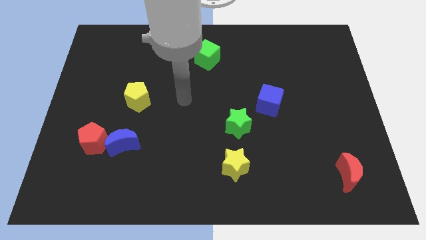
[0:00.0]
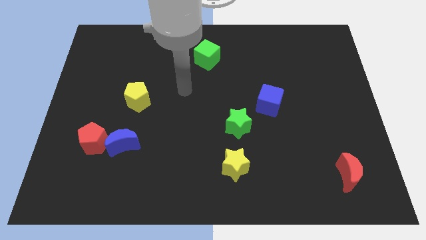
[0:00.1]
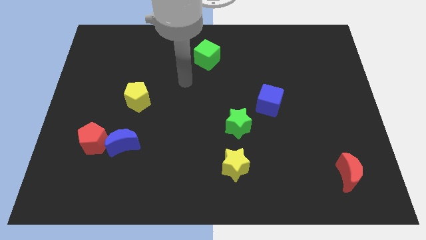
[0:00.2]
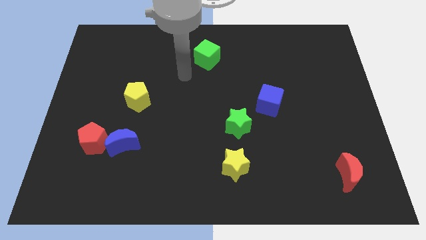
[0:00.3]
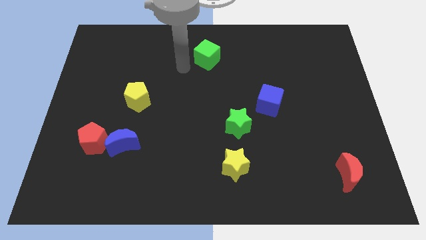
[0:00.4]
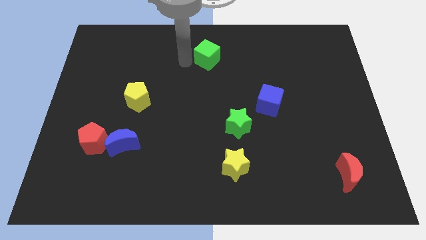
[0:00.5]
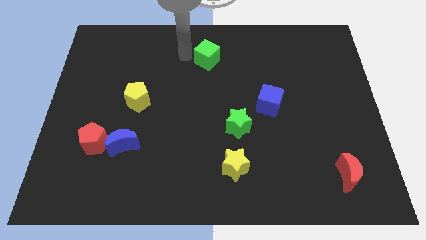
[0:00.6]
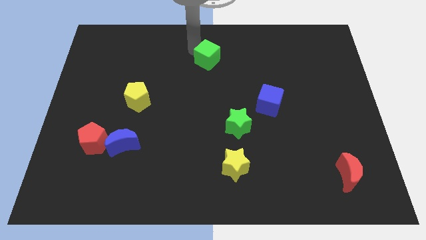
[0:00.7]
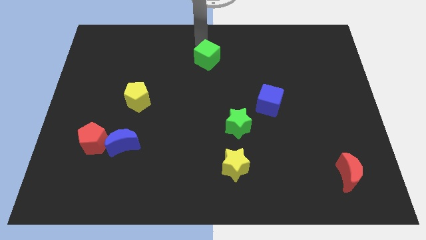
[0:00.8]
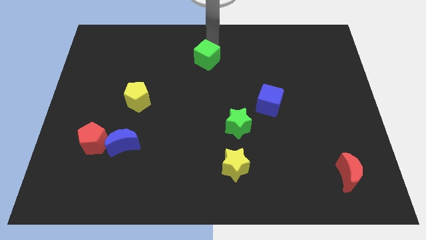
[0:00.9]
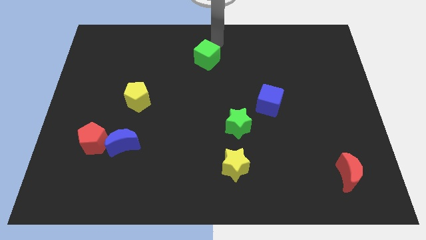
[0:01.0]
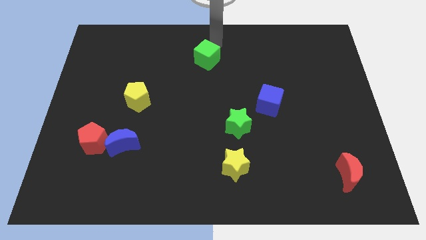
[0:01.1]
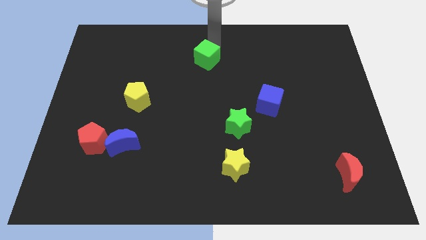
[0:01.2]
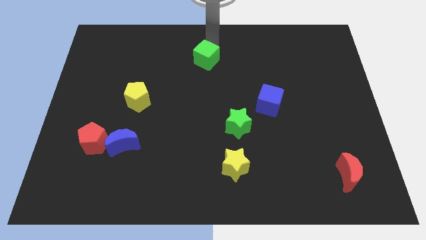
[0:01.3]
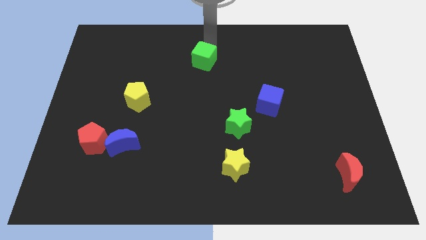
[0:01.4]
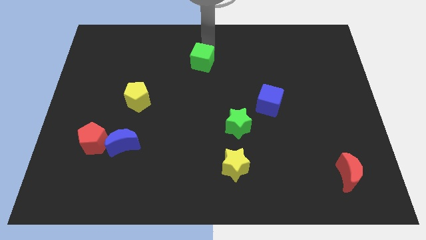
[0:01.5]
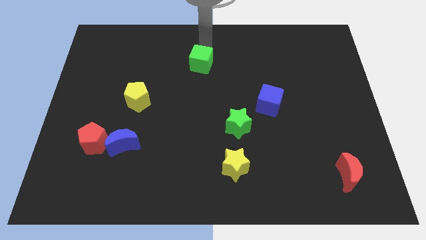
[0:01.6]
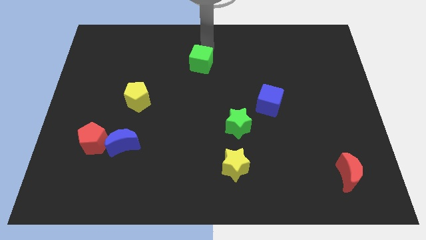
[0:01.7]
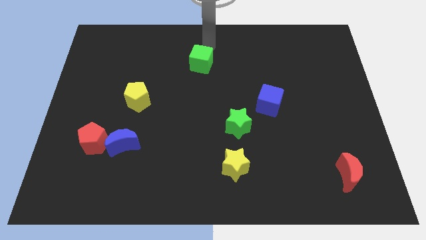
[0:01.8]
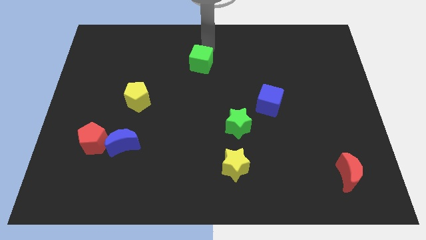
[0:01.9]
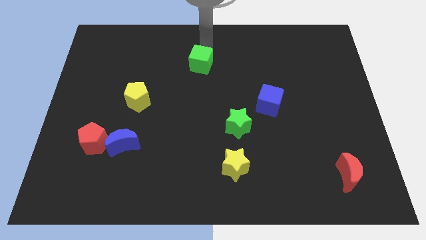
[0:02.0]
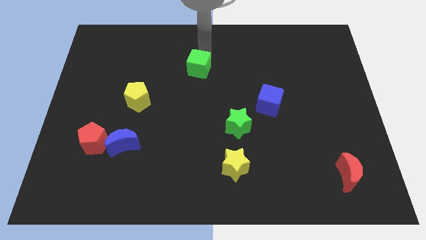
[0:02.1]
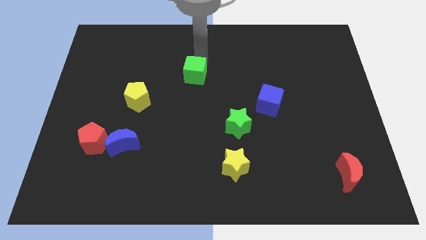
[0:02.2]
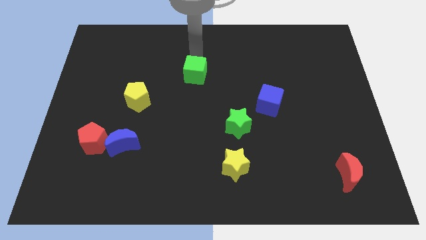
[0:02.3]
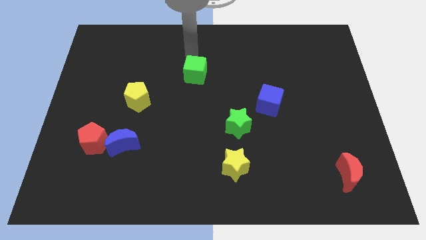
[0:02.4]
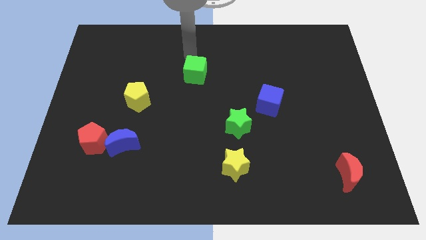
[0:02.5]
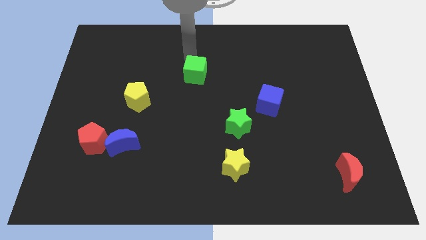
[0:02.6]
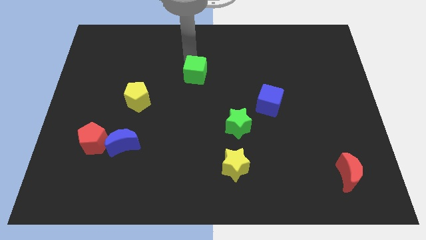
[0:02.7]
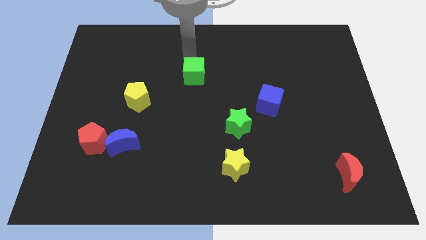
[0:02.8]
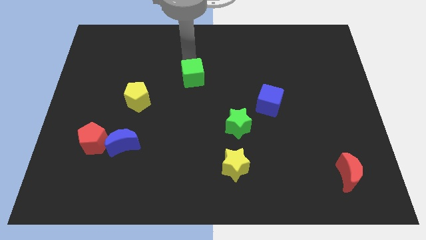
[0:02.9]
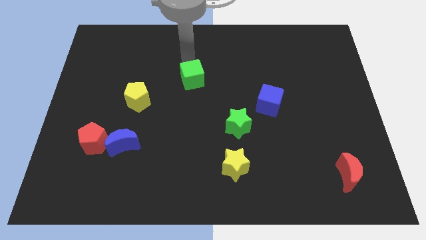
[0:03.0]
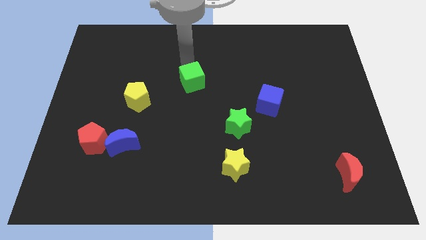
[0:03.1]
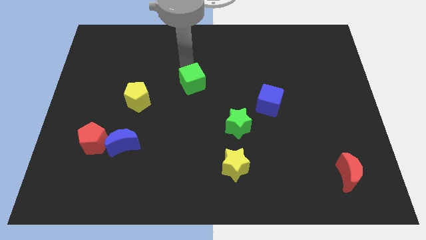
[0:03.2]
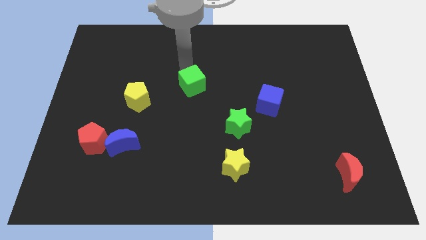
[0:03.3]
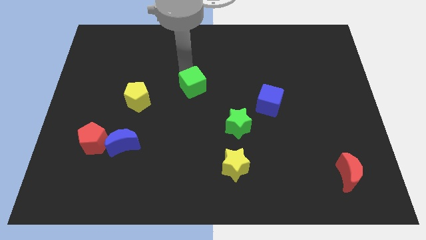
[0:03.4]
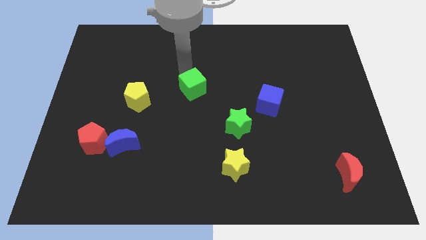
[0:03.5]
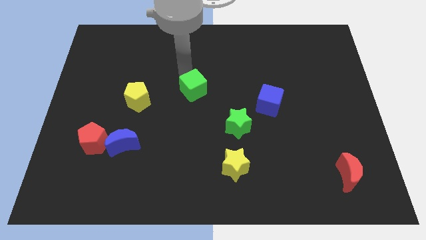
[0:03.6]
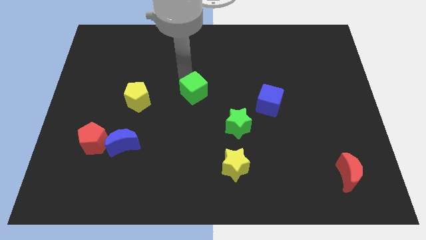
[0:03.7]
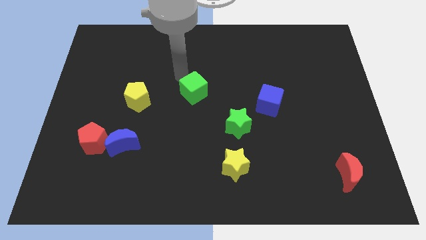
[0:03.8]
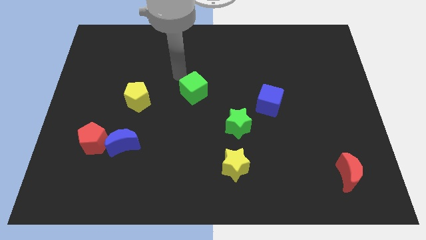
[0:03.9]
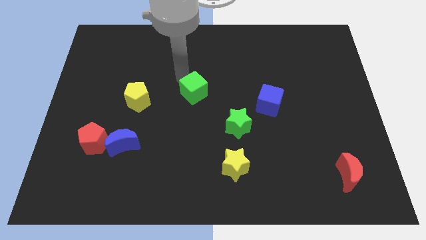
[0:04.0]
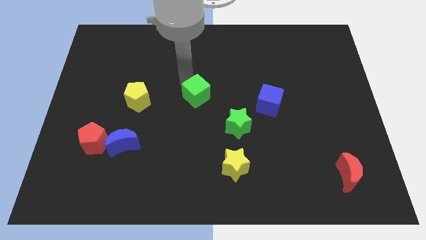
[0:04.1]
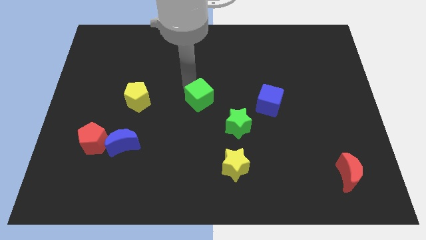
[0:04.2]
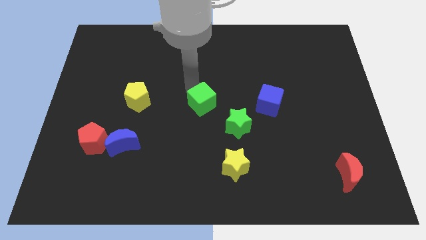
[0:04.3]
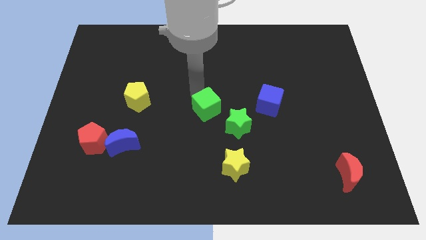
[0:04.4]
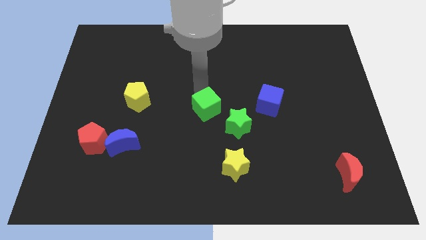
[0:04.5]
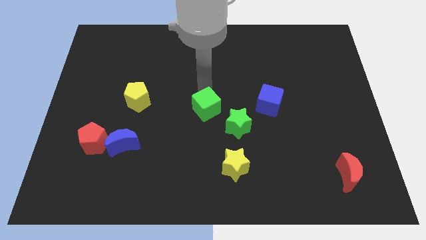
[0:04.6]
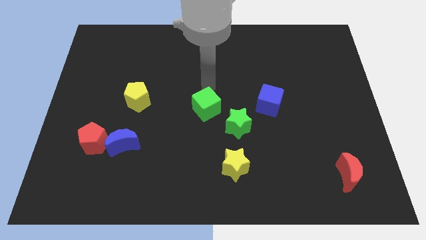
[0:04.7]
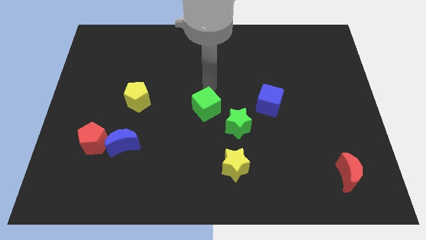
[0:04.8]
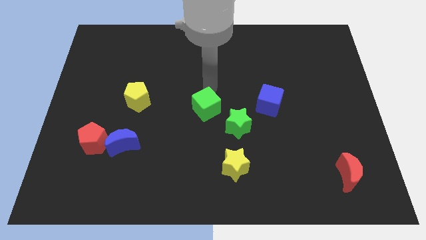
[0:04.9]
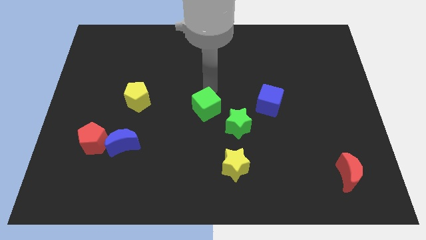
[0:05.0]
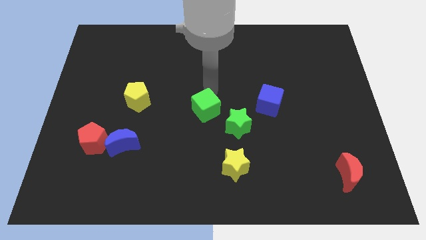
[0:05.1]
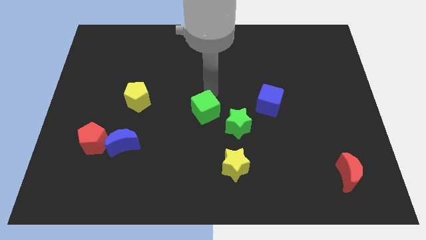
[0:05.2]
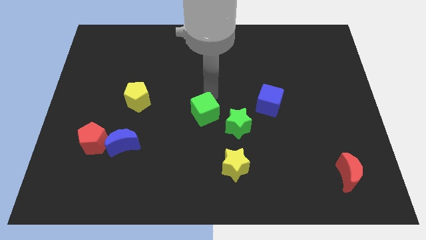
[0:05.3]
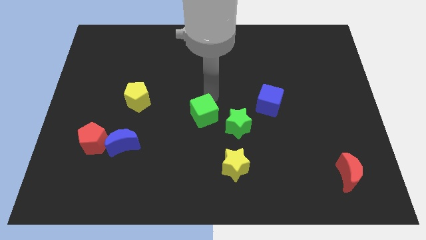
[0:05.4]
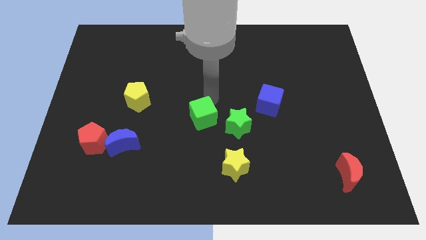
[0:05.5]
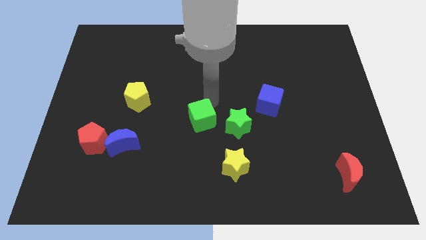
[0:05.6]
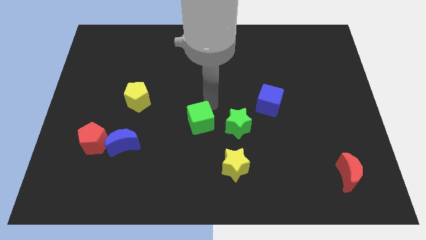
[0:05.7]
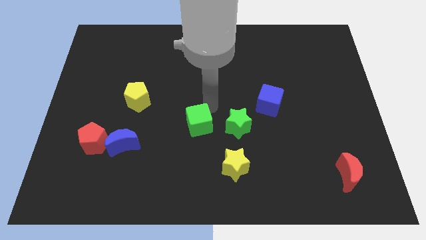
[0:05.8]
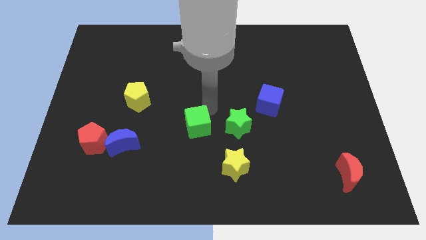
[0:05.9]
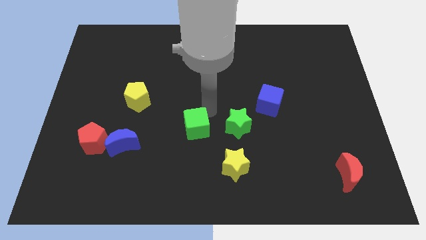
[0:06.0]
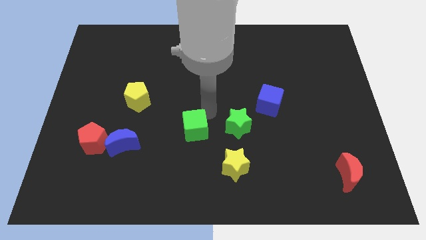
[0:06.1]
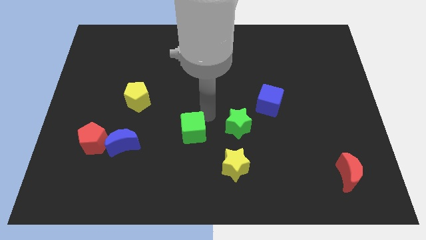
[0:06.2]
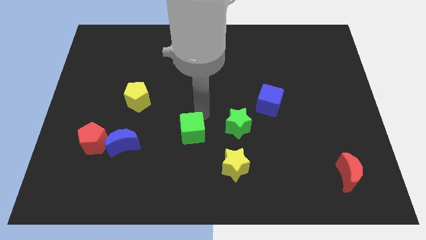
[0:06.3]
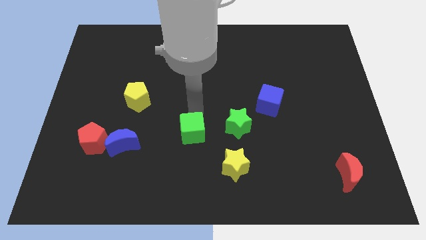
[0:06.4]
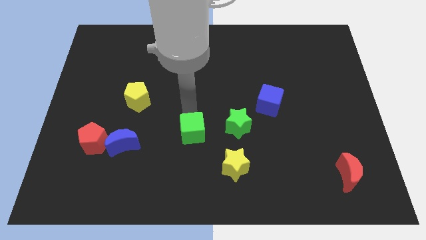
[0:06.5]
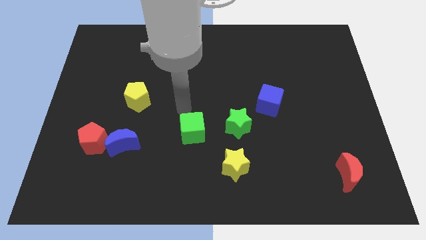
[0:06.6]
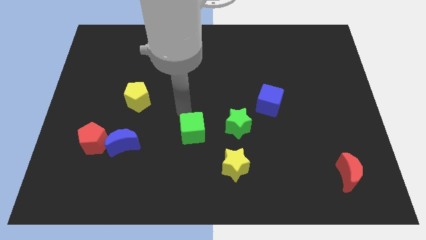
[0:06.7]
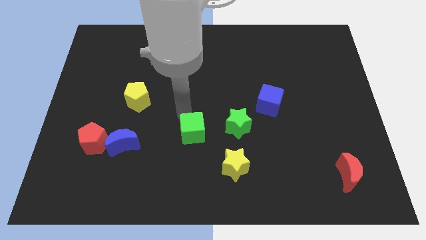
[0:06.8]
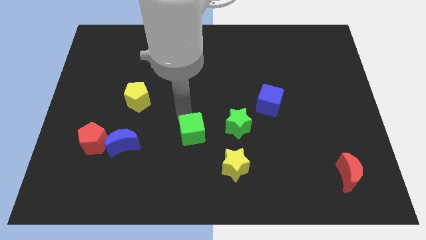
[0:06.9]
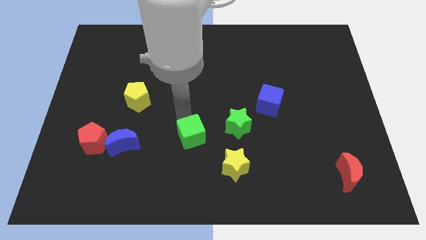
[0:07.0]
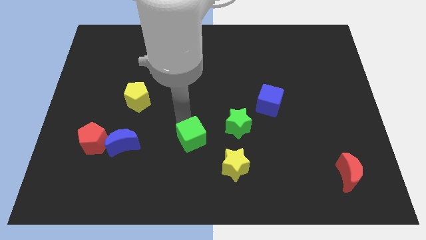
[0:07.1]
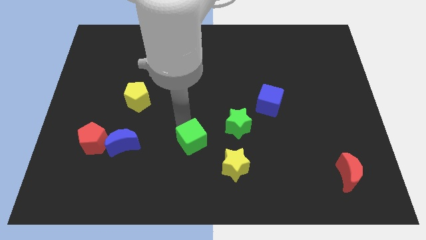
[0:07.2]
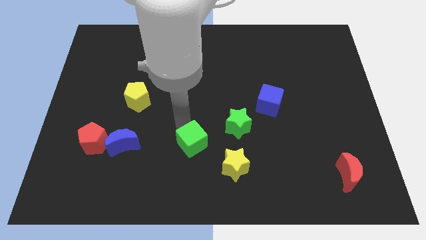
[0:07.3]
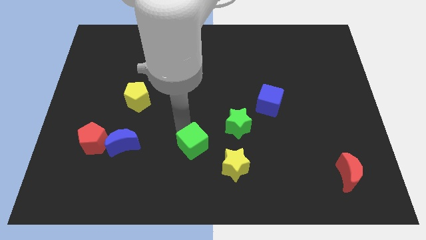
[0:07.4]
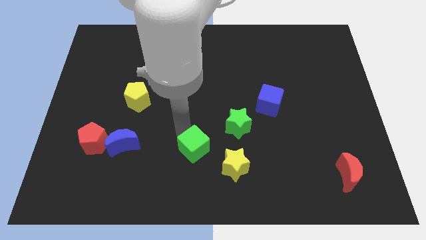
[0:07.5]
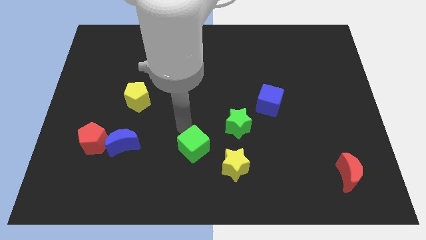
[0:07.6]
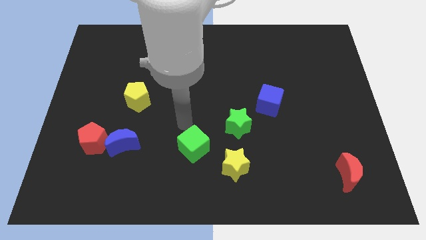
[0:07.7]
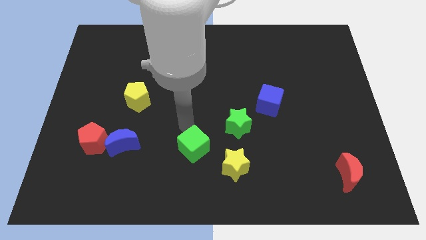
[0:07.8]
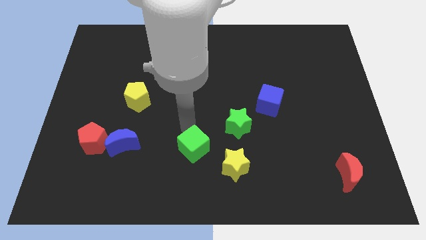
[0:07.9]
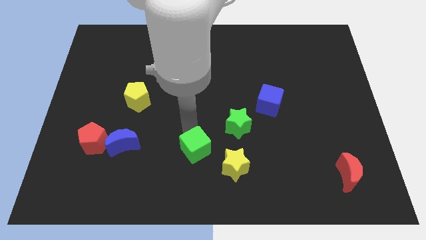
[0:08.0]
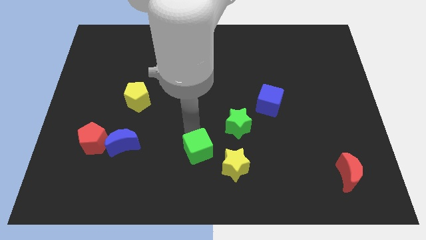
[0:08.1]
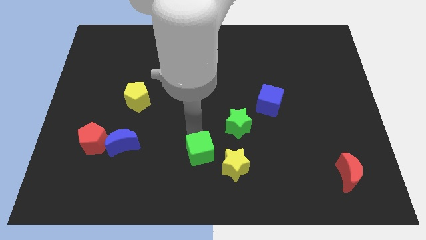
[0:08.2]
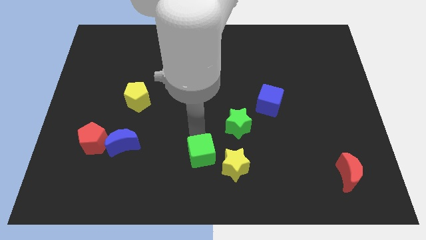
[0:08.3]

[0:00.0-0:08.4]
put the green cube to the bottom
